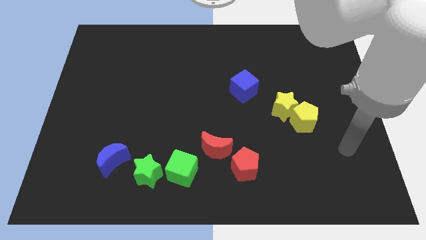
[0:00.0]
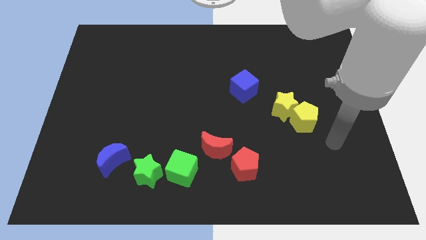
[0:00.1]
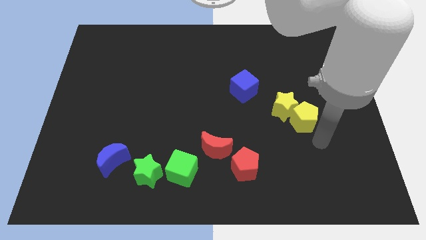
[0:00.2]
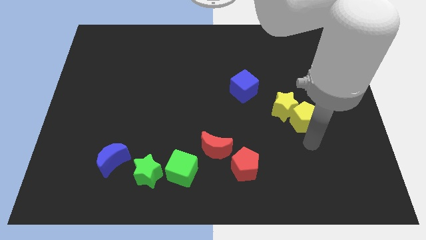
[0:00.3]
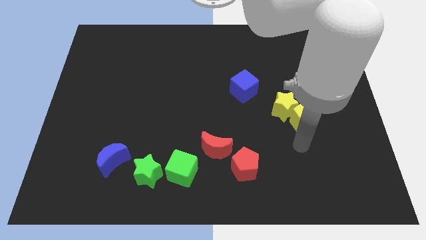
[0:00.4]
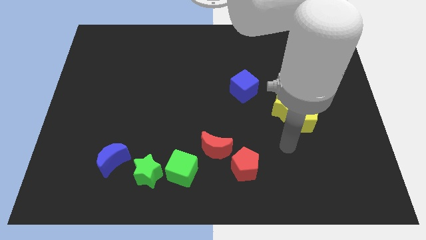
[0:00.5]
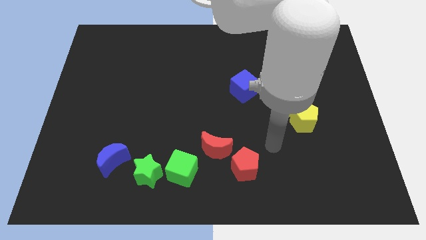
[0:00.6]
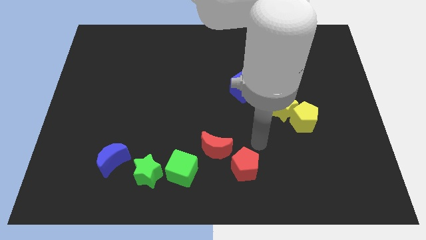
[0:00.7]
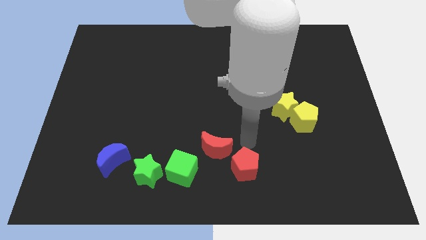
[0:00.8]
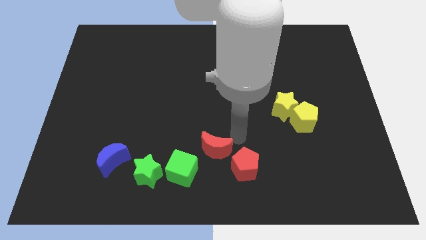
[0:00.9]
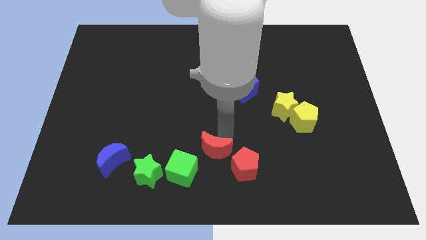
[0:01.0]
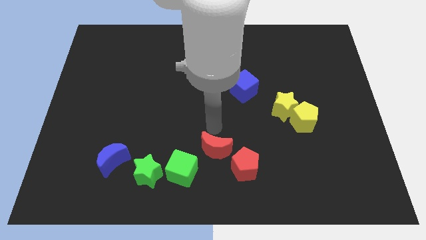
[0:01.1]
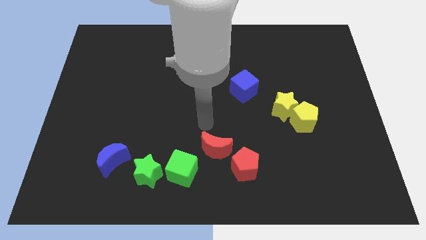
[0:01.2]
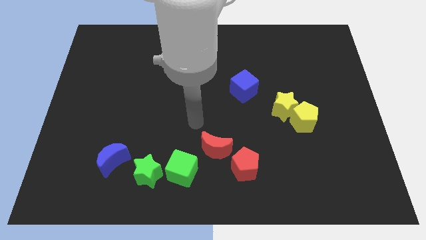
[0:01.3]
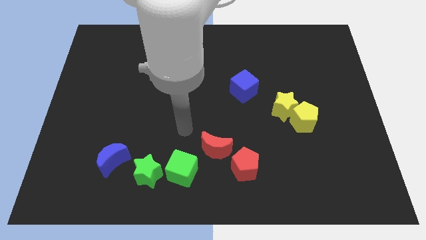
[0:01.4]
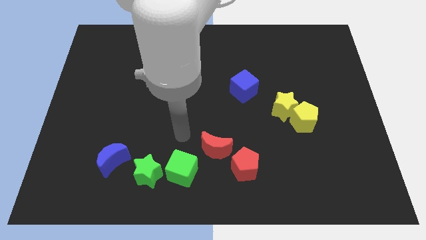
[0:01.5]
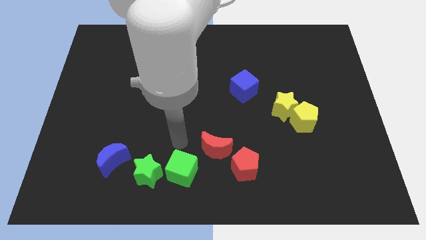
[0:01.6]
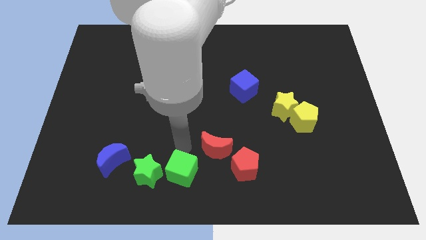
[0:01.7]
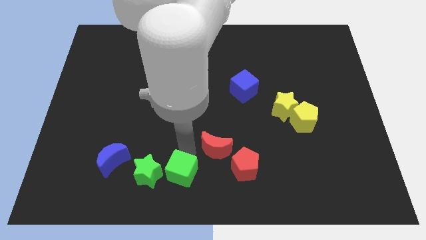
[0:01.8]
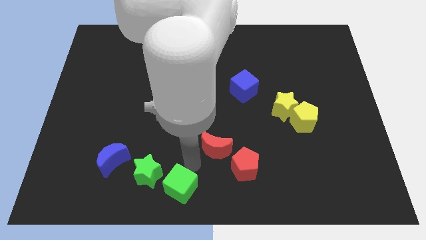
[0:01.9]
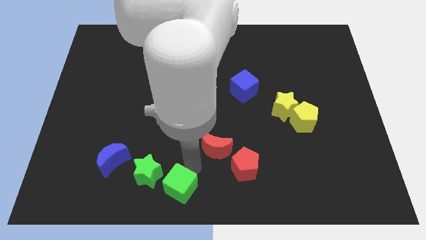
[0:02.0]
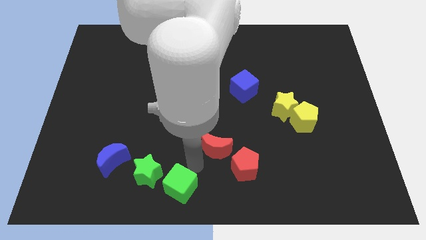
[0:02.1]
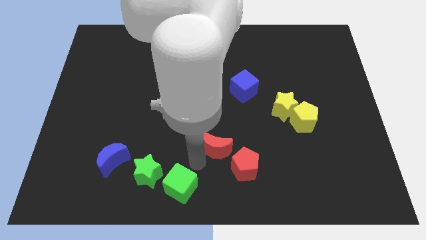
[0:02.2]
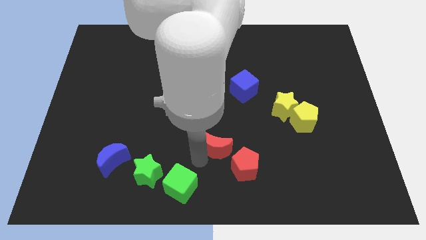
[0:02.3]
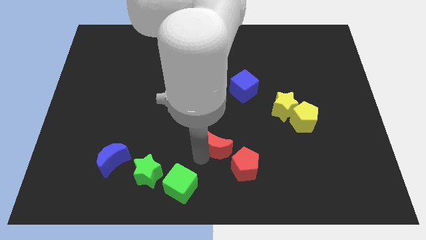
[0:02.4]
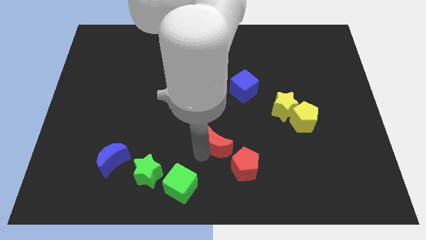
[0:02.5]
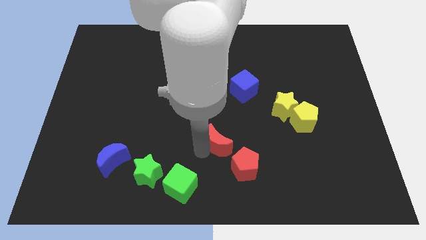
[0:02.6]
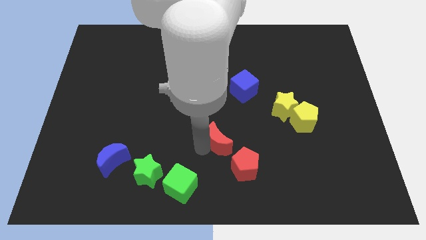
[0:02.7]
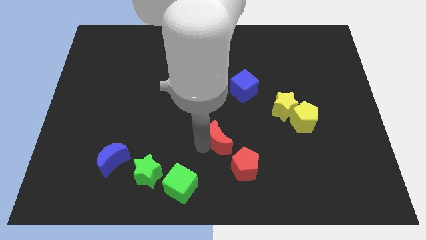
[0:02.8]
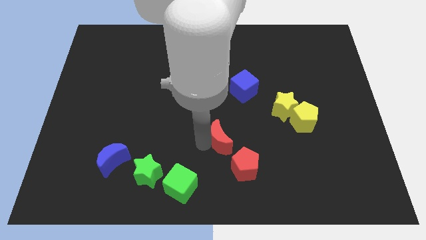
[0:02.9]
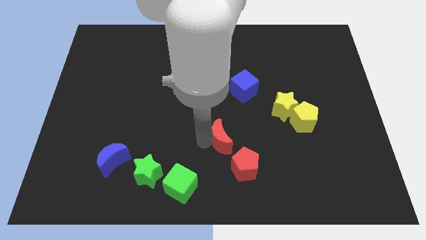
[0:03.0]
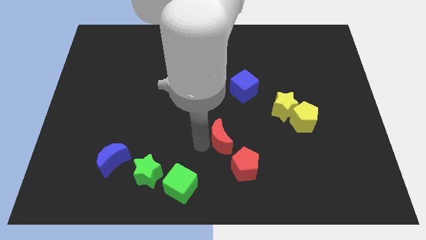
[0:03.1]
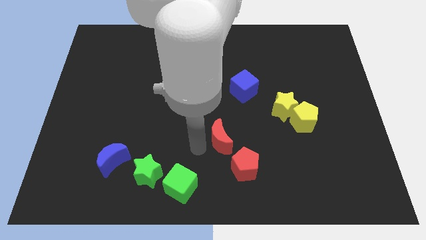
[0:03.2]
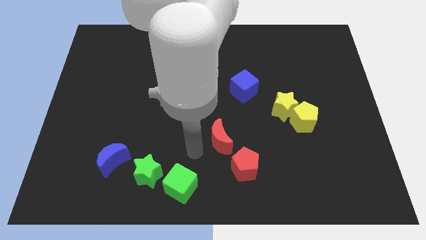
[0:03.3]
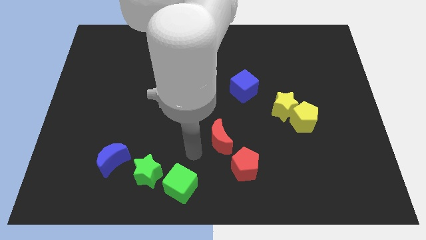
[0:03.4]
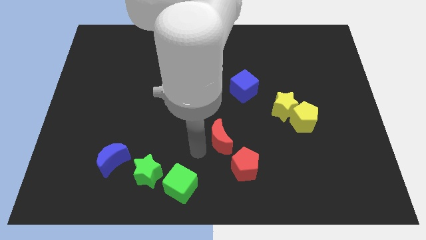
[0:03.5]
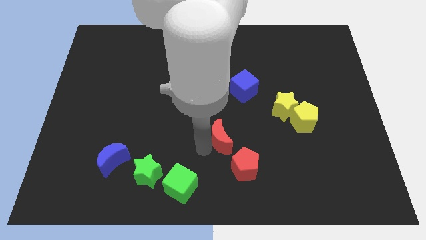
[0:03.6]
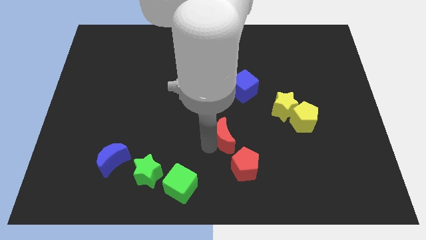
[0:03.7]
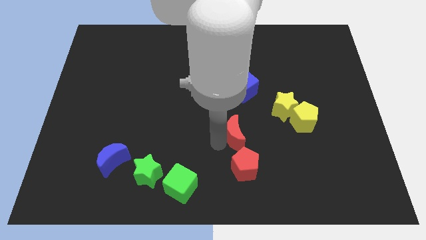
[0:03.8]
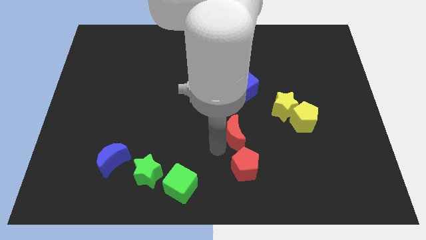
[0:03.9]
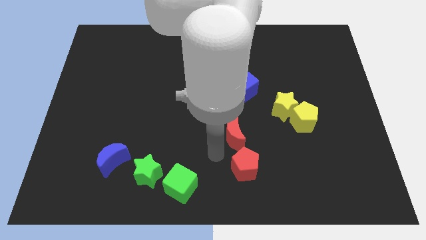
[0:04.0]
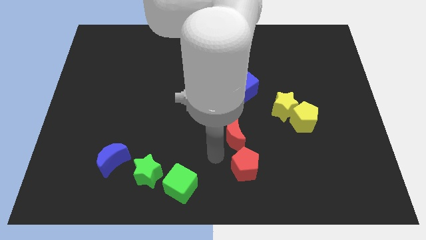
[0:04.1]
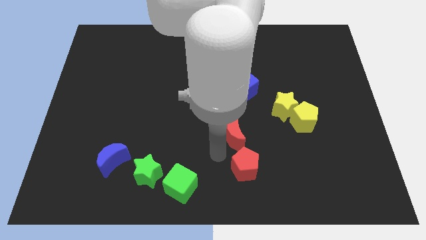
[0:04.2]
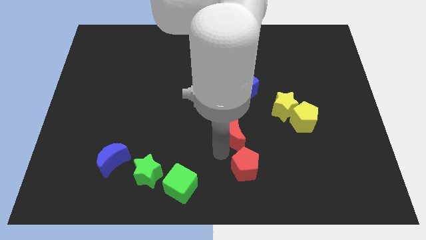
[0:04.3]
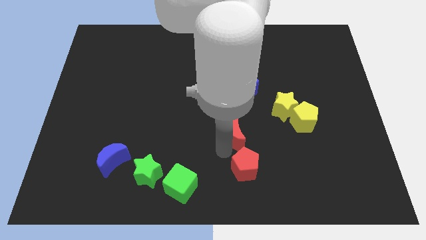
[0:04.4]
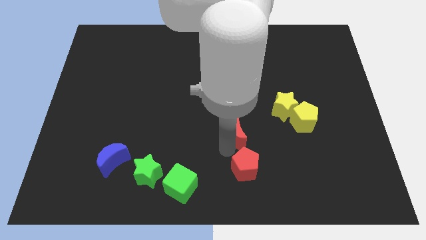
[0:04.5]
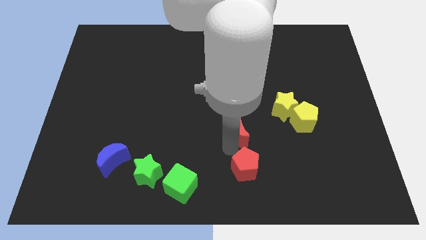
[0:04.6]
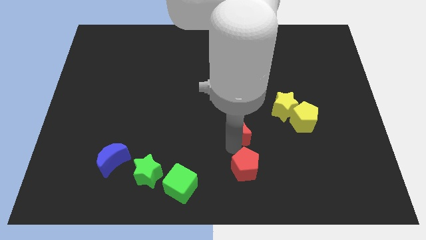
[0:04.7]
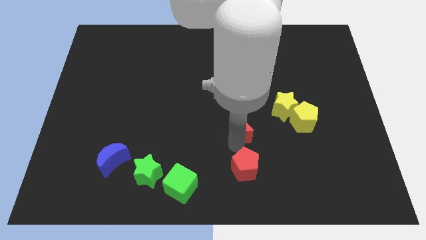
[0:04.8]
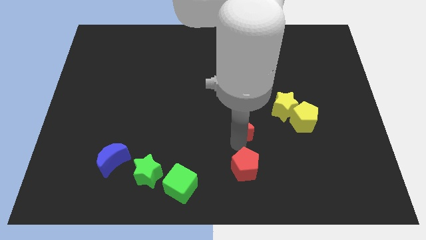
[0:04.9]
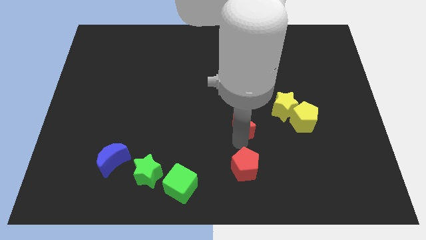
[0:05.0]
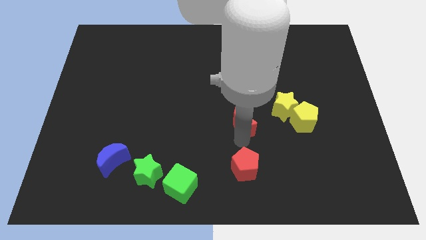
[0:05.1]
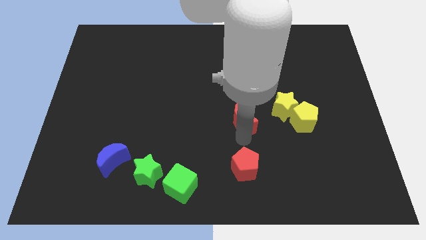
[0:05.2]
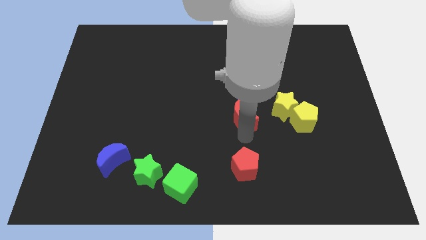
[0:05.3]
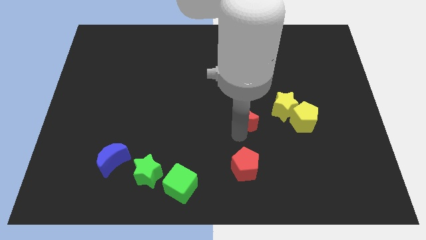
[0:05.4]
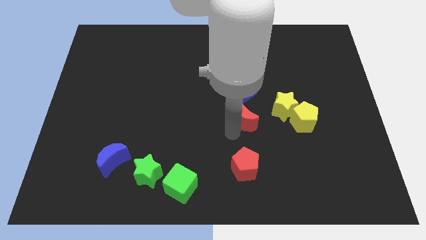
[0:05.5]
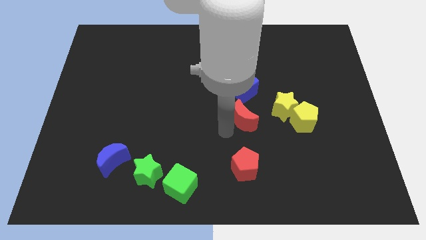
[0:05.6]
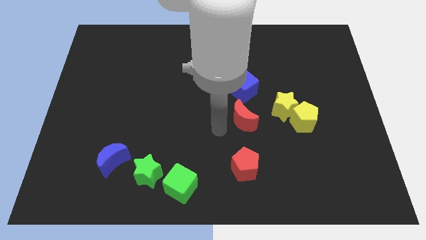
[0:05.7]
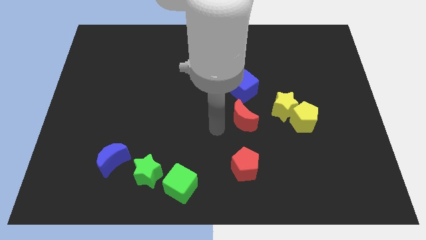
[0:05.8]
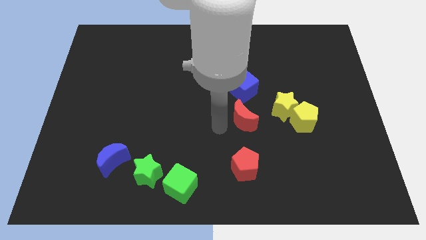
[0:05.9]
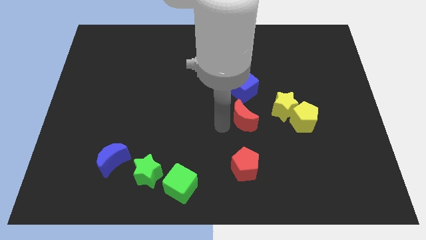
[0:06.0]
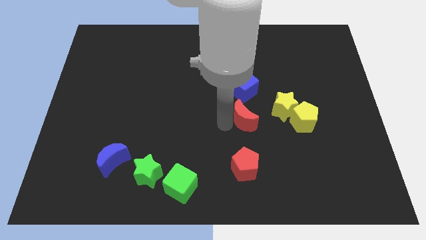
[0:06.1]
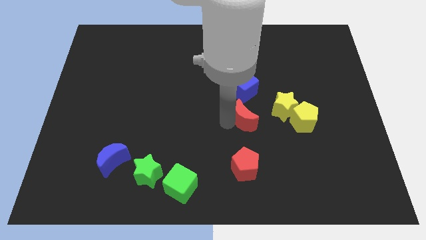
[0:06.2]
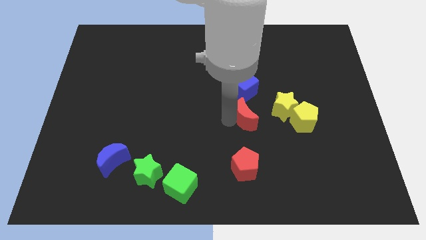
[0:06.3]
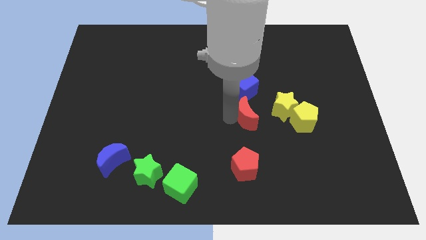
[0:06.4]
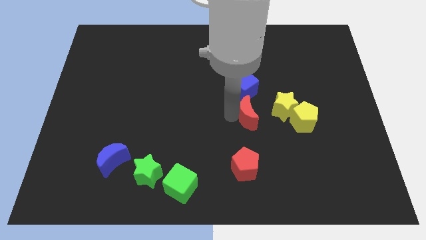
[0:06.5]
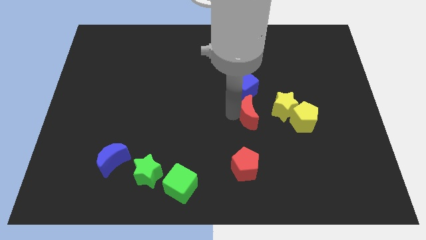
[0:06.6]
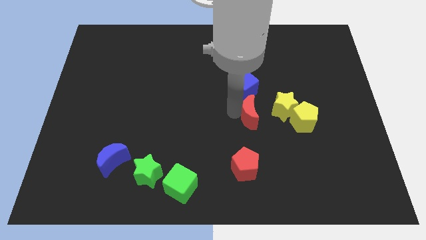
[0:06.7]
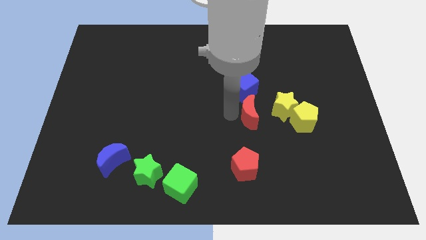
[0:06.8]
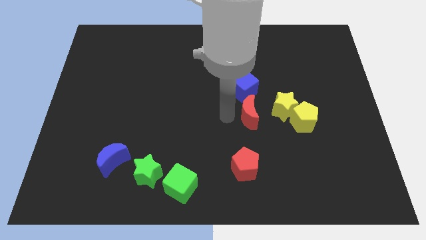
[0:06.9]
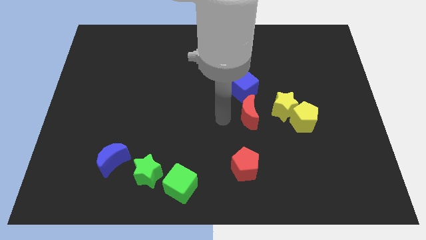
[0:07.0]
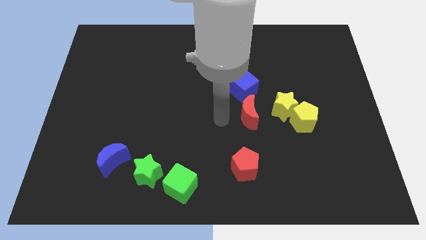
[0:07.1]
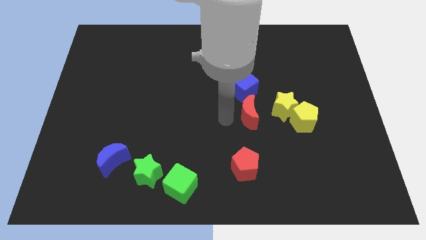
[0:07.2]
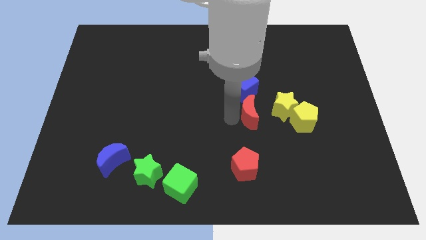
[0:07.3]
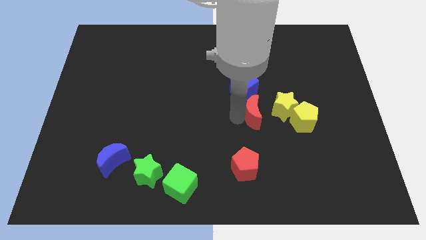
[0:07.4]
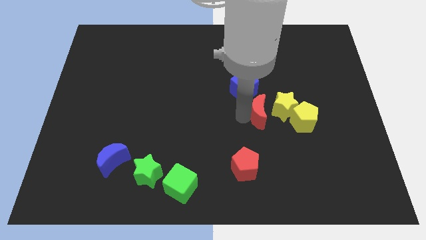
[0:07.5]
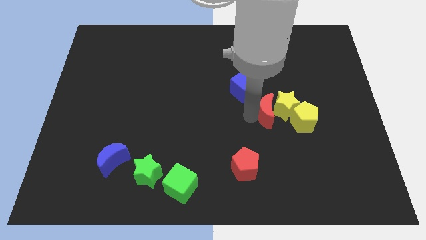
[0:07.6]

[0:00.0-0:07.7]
put the red moon towards the yellow star
